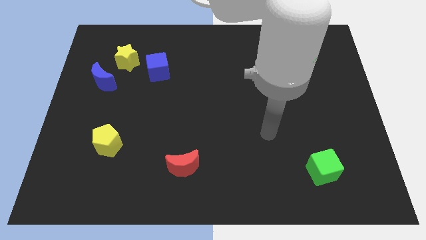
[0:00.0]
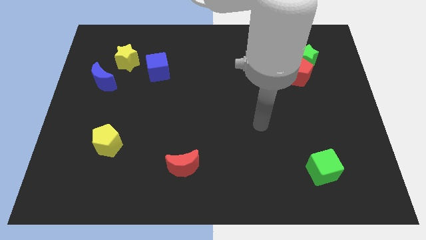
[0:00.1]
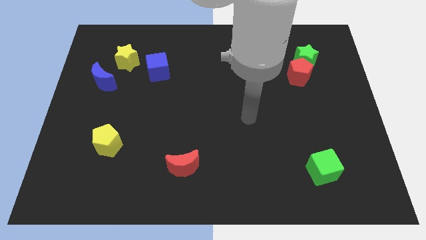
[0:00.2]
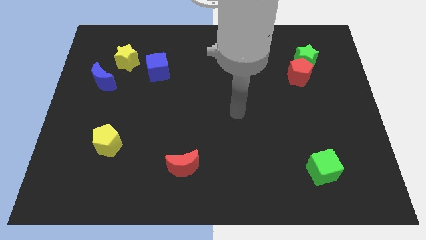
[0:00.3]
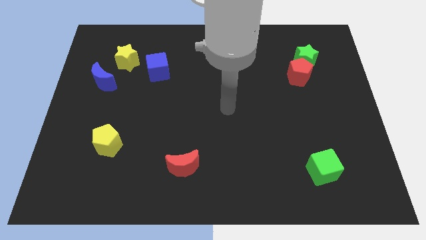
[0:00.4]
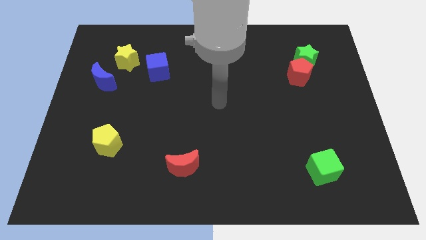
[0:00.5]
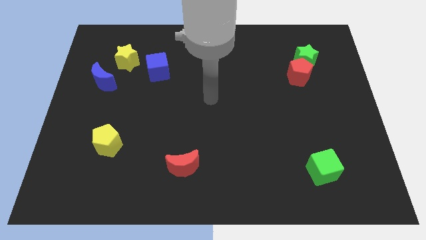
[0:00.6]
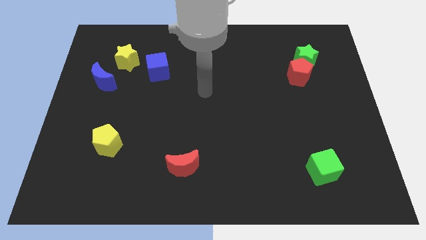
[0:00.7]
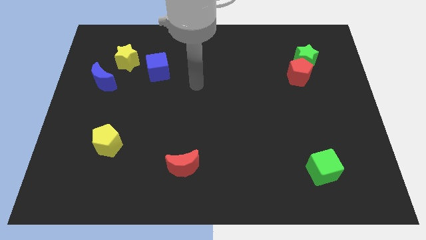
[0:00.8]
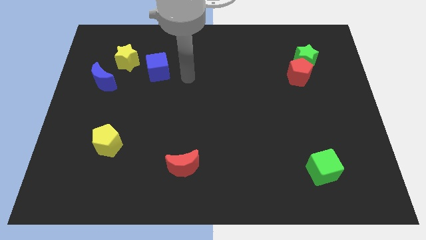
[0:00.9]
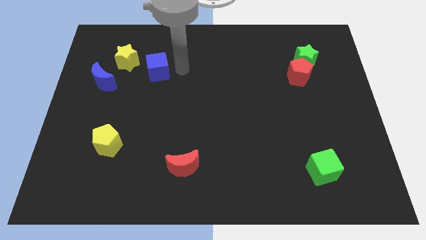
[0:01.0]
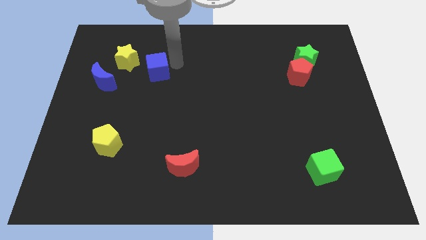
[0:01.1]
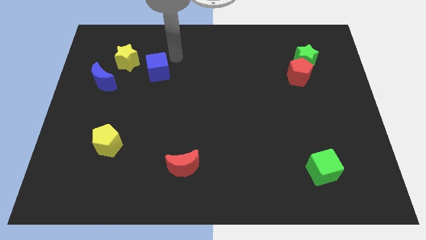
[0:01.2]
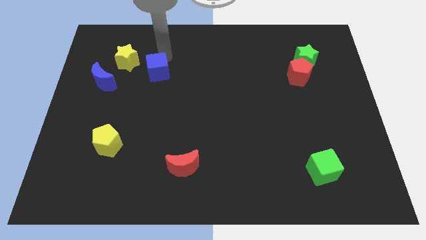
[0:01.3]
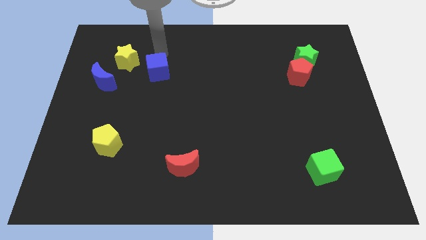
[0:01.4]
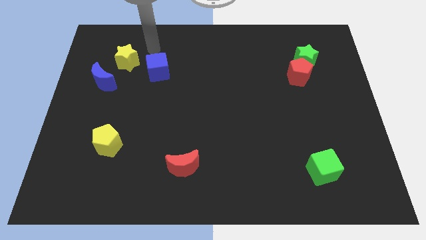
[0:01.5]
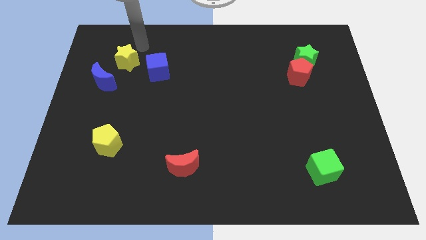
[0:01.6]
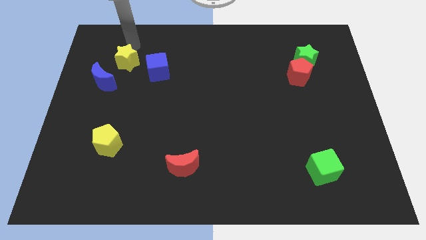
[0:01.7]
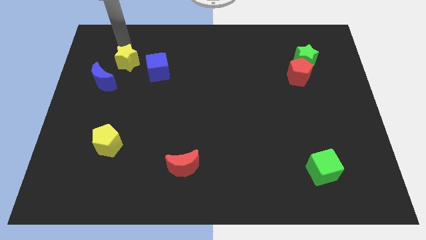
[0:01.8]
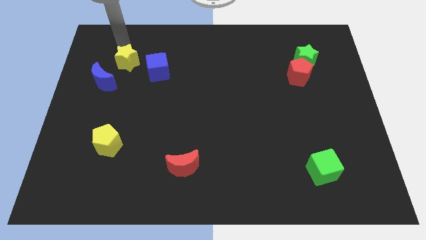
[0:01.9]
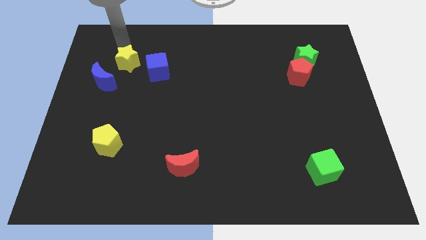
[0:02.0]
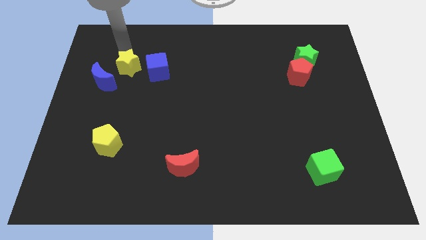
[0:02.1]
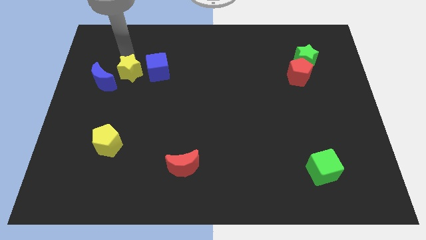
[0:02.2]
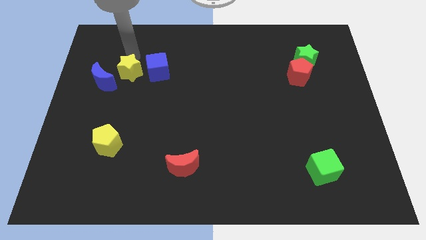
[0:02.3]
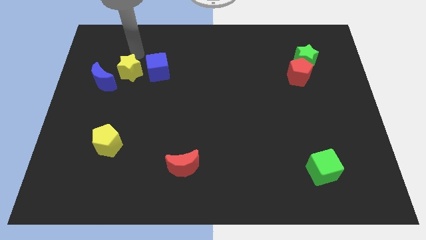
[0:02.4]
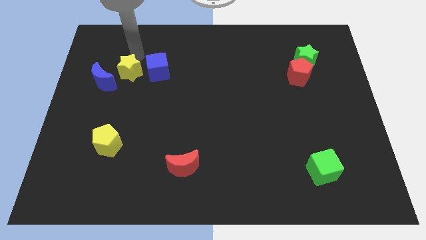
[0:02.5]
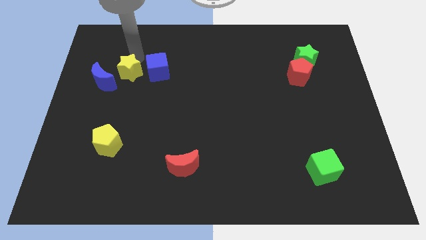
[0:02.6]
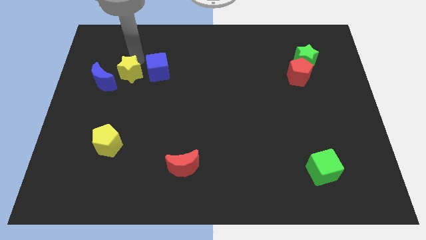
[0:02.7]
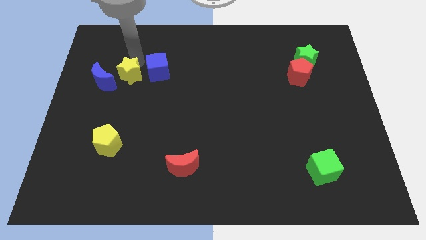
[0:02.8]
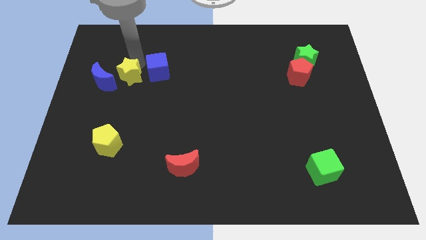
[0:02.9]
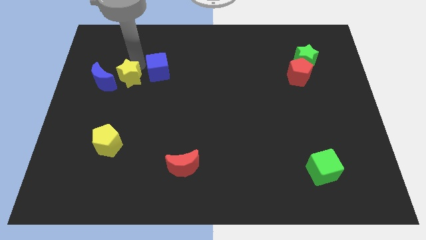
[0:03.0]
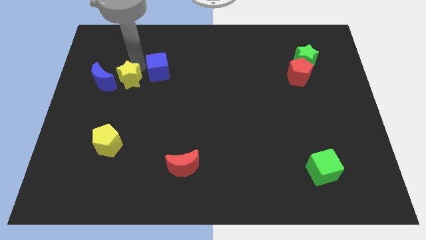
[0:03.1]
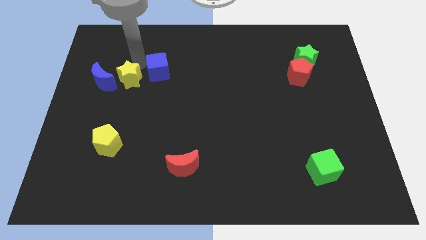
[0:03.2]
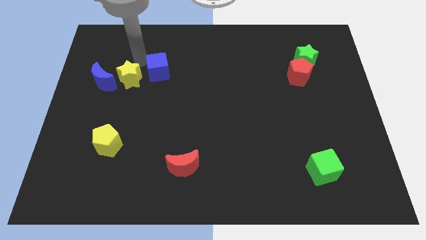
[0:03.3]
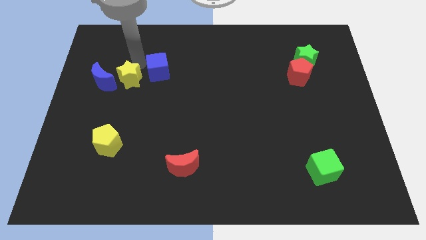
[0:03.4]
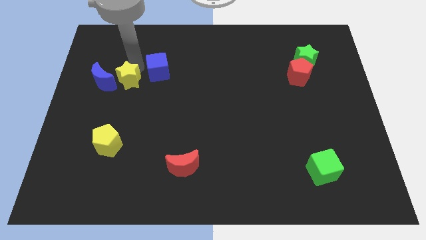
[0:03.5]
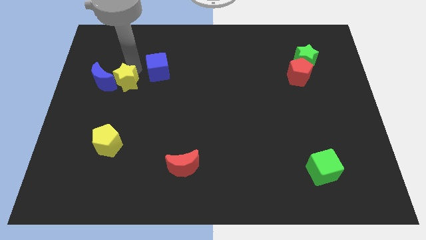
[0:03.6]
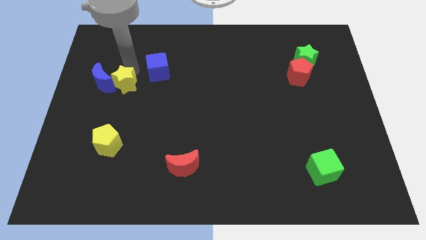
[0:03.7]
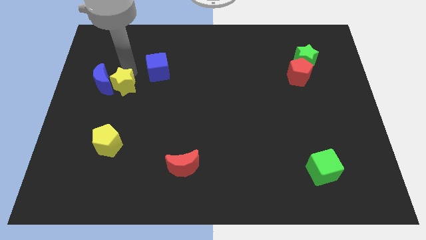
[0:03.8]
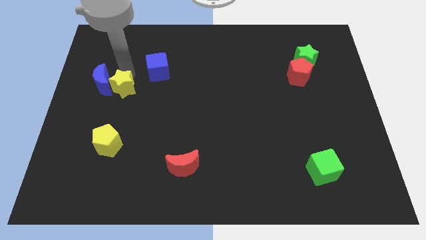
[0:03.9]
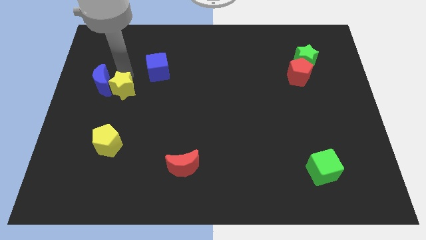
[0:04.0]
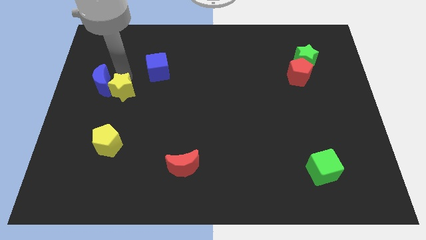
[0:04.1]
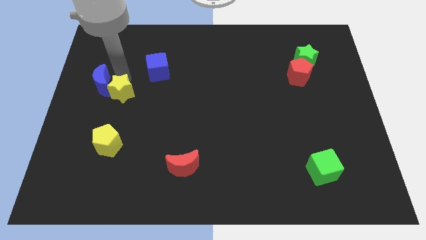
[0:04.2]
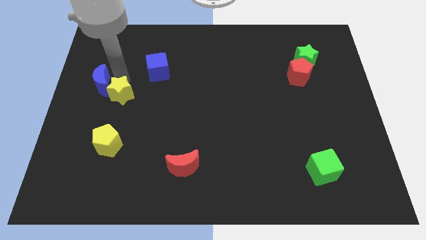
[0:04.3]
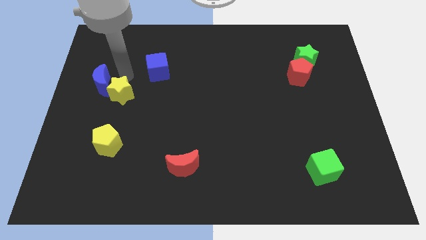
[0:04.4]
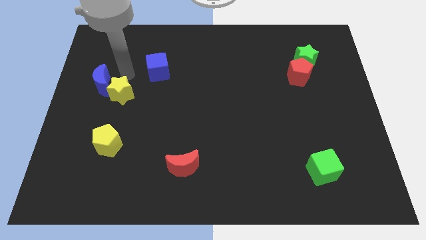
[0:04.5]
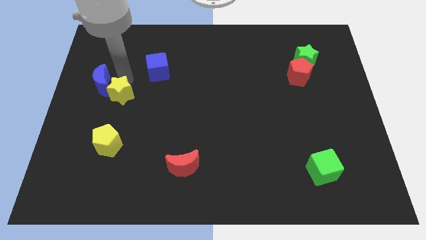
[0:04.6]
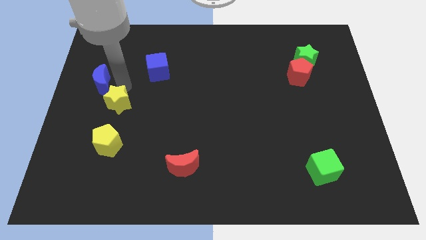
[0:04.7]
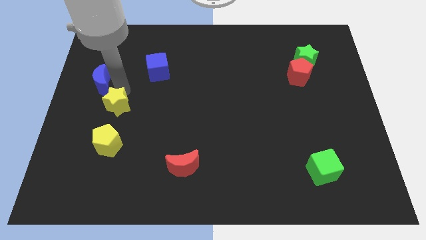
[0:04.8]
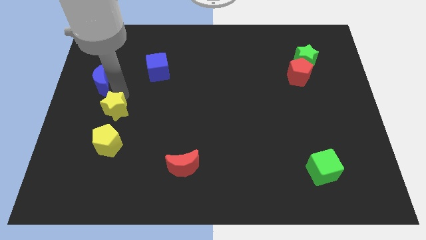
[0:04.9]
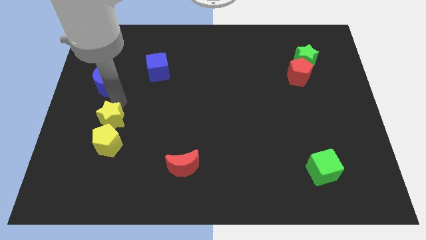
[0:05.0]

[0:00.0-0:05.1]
put the yellow star towards the yellow pentagon

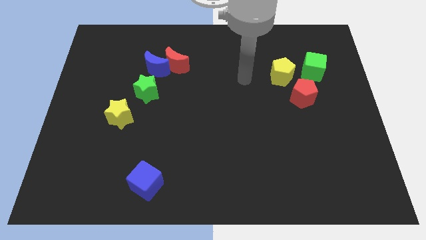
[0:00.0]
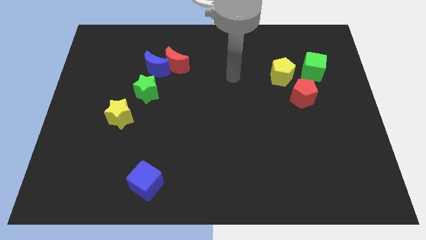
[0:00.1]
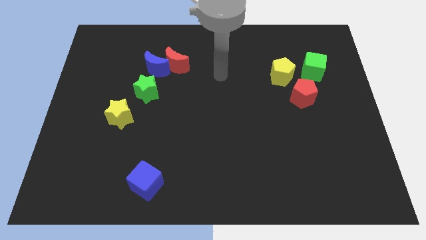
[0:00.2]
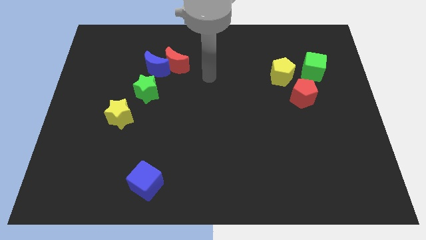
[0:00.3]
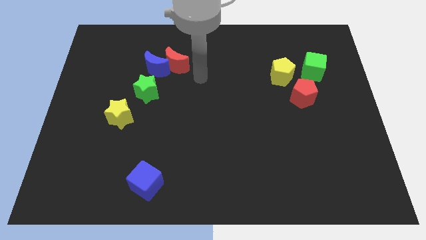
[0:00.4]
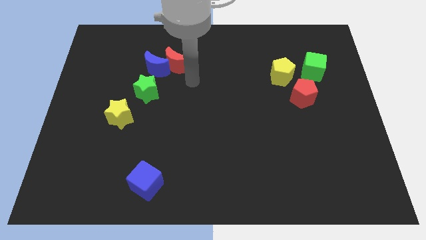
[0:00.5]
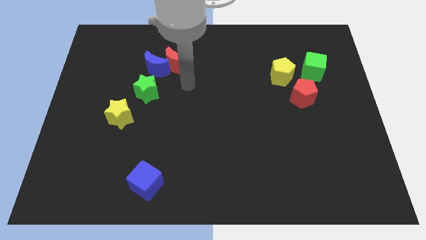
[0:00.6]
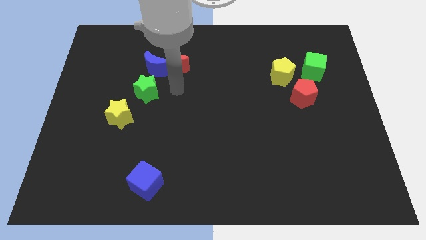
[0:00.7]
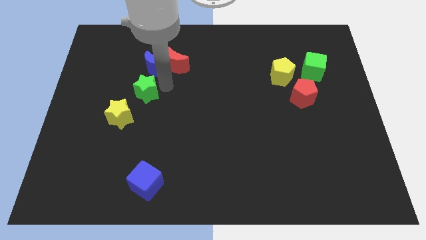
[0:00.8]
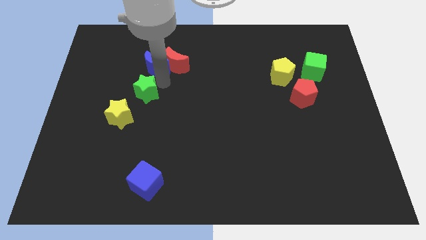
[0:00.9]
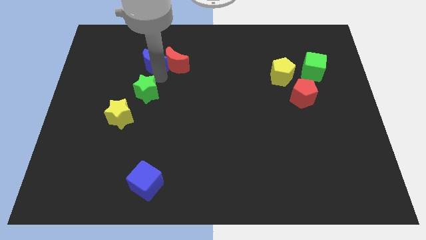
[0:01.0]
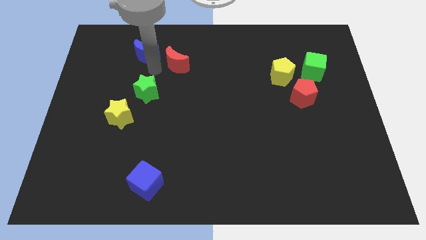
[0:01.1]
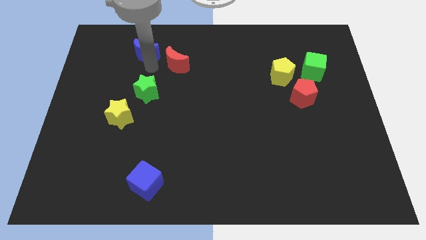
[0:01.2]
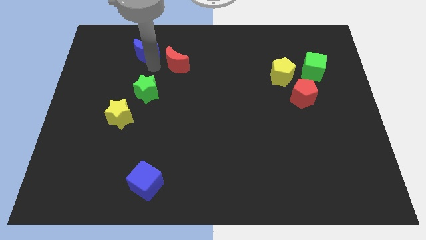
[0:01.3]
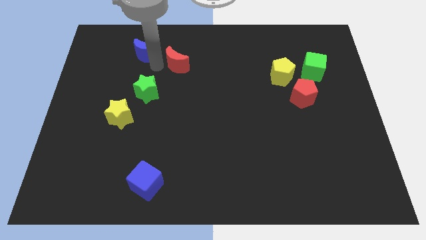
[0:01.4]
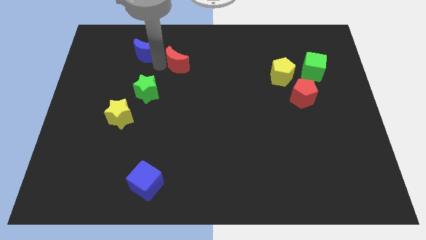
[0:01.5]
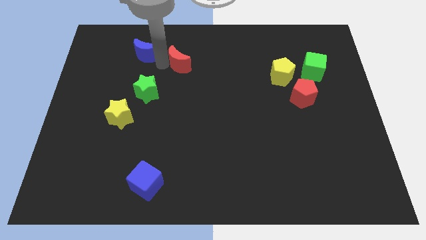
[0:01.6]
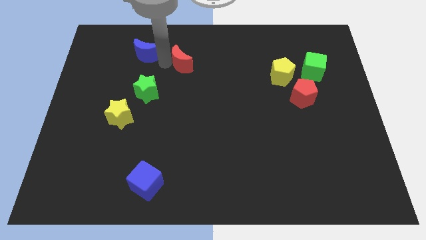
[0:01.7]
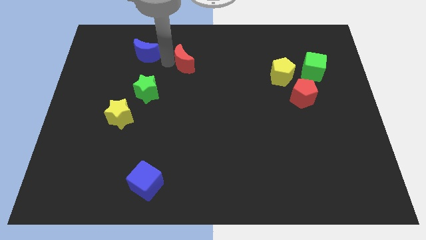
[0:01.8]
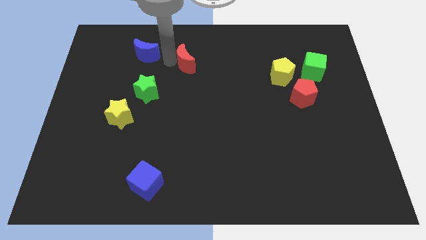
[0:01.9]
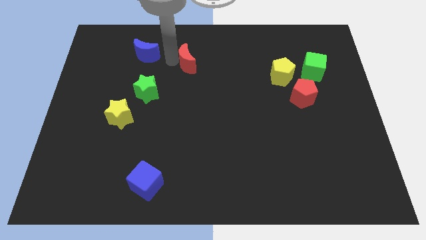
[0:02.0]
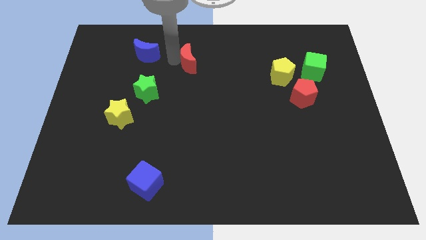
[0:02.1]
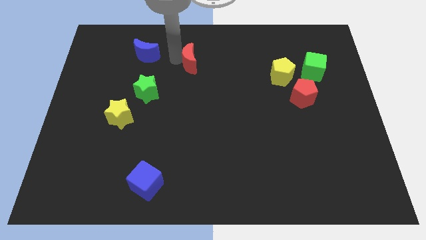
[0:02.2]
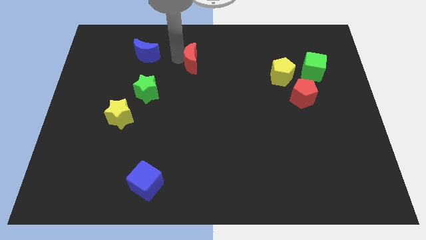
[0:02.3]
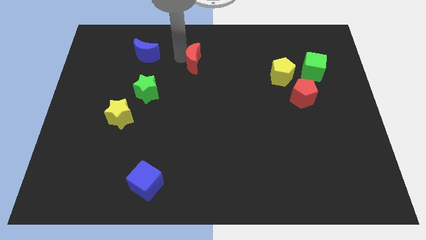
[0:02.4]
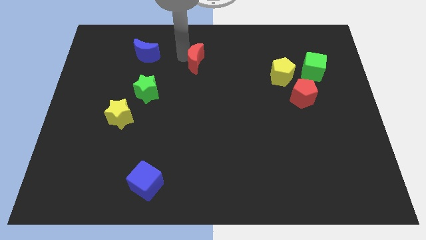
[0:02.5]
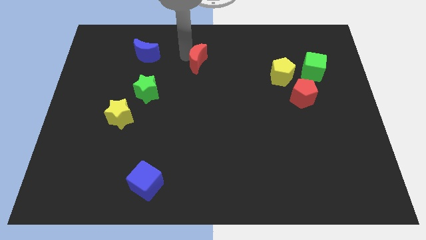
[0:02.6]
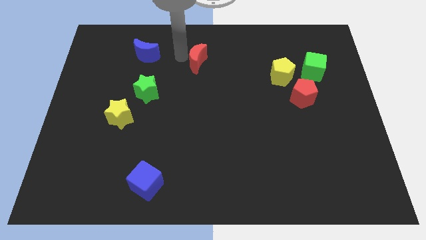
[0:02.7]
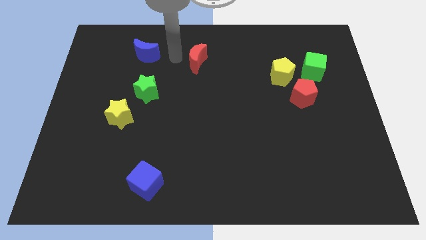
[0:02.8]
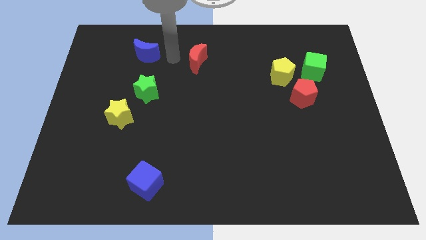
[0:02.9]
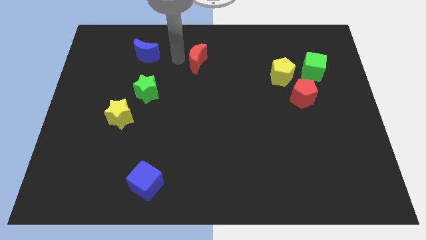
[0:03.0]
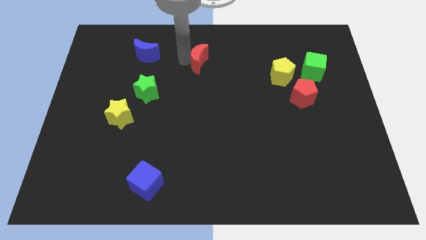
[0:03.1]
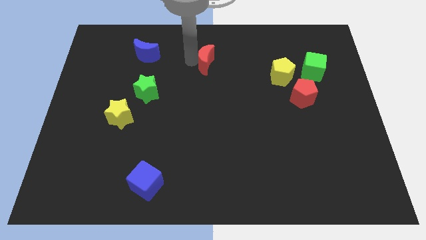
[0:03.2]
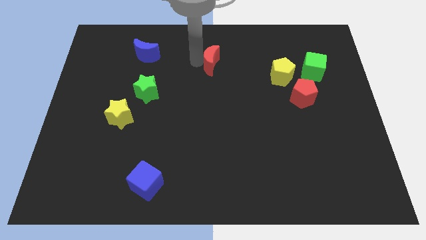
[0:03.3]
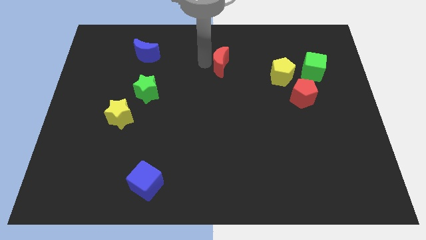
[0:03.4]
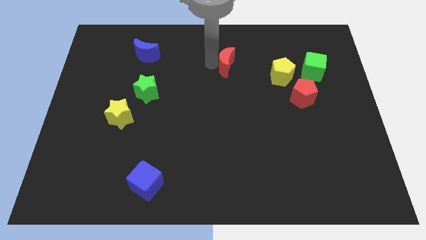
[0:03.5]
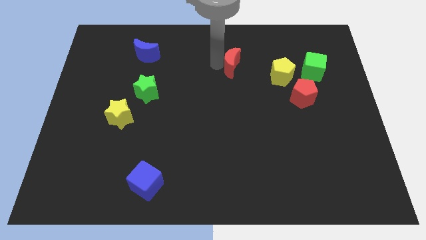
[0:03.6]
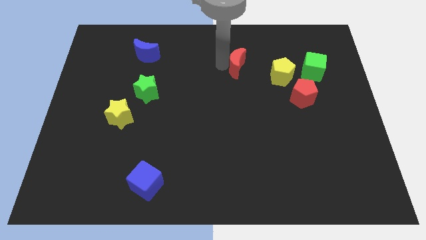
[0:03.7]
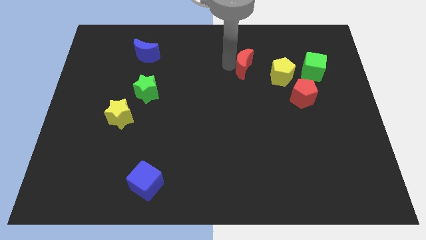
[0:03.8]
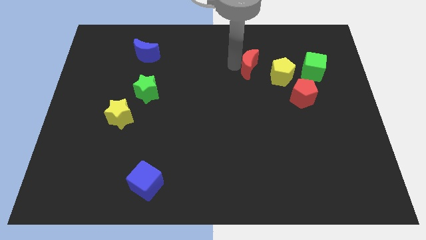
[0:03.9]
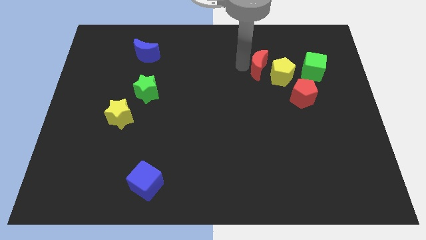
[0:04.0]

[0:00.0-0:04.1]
put the red moon close to the yellow pentagon
